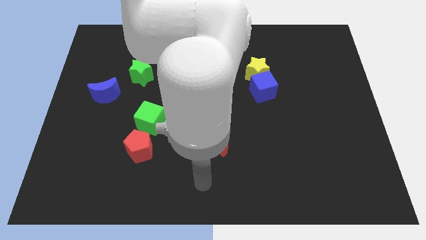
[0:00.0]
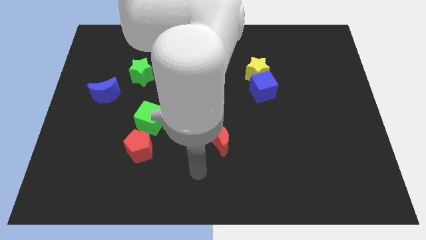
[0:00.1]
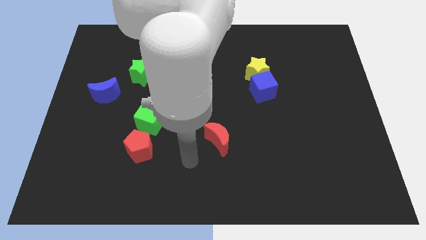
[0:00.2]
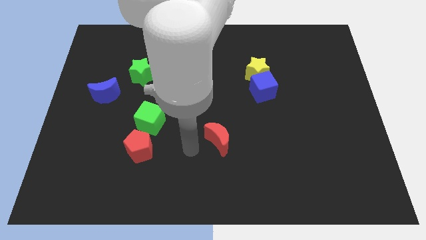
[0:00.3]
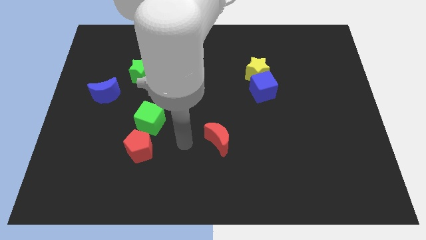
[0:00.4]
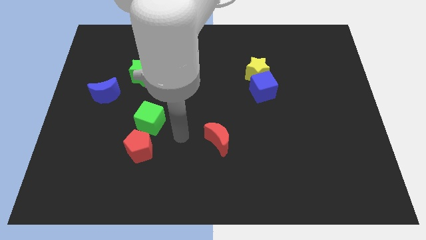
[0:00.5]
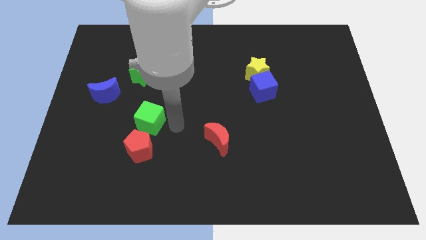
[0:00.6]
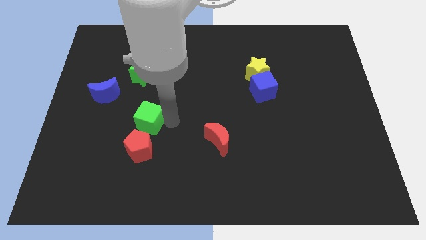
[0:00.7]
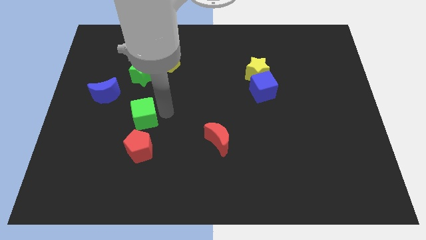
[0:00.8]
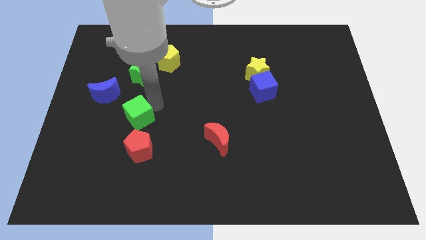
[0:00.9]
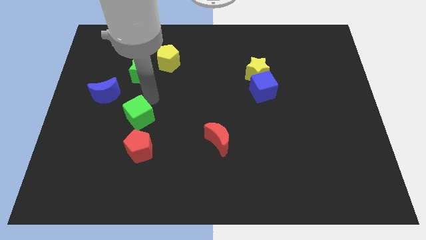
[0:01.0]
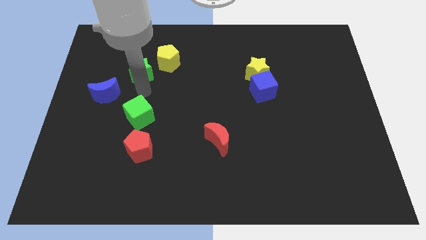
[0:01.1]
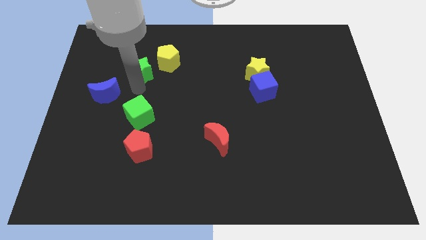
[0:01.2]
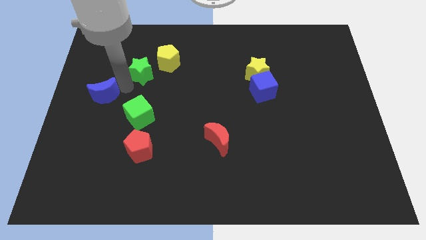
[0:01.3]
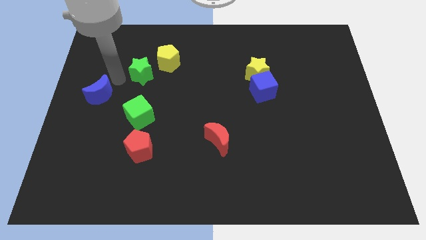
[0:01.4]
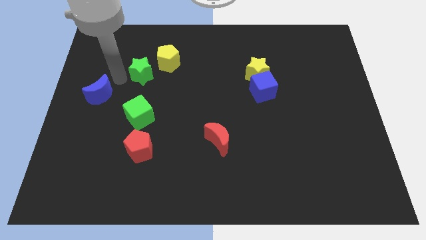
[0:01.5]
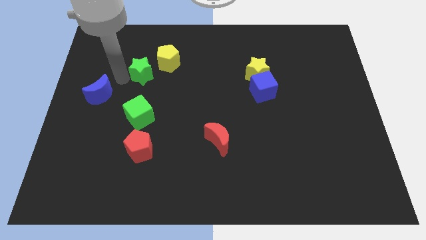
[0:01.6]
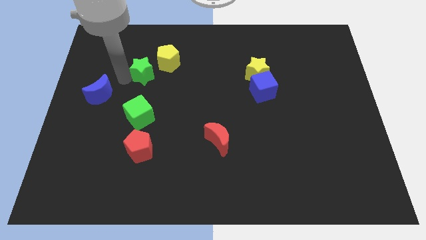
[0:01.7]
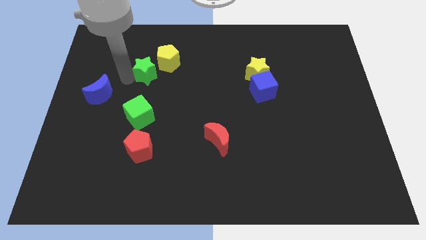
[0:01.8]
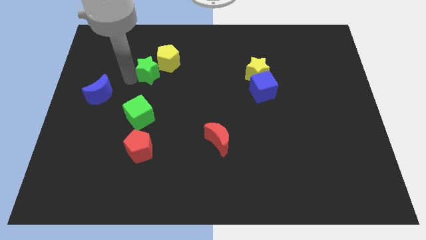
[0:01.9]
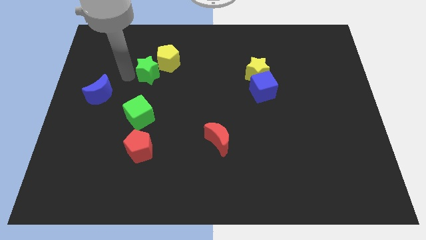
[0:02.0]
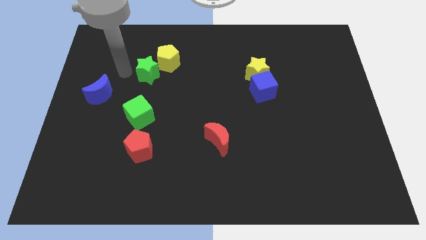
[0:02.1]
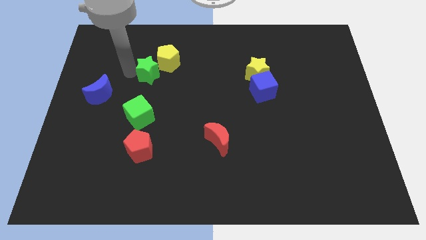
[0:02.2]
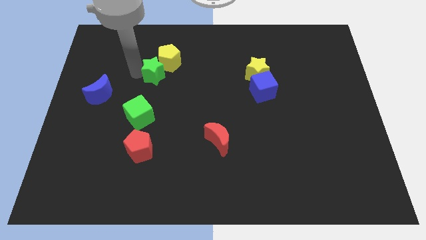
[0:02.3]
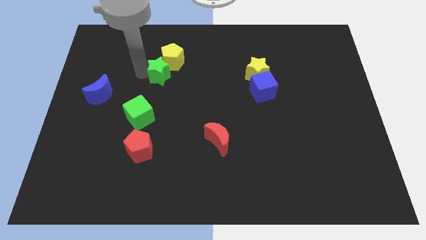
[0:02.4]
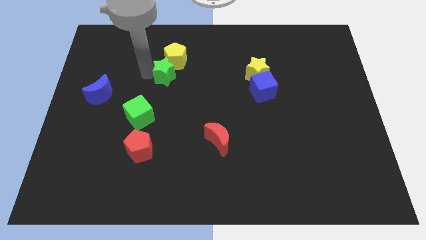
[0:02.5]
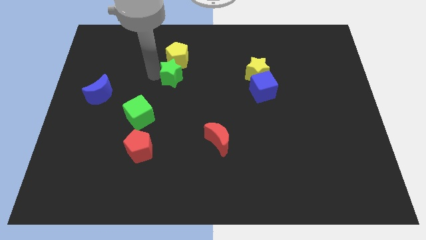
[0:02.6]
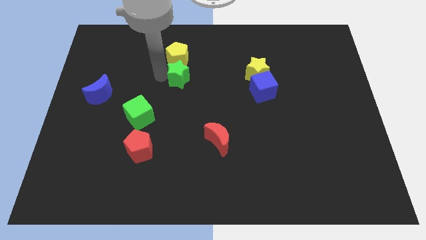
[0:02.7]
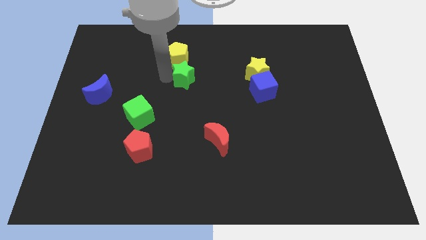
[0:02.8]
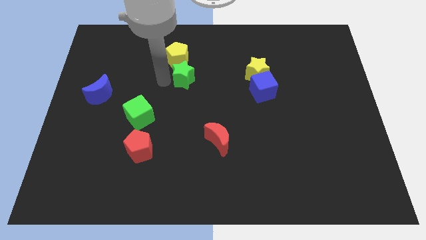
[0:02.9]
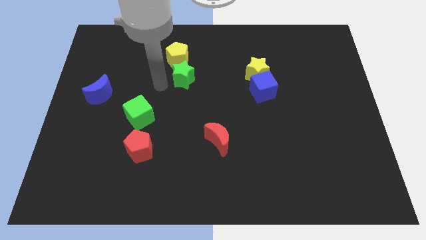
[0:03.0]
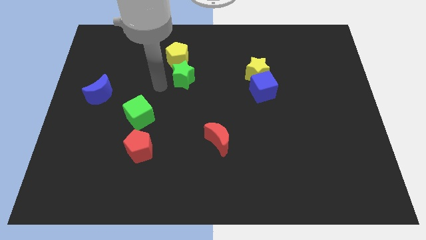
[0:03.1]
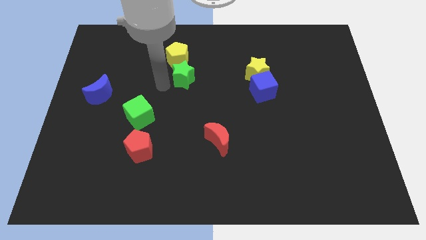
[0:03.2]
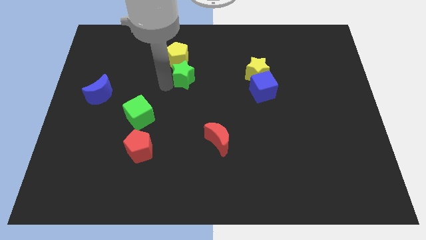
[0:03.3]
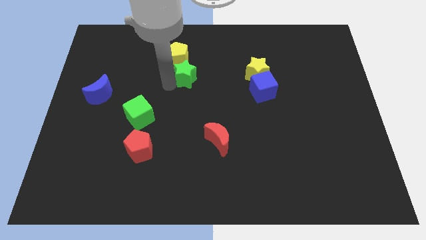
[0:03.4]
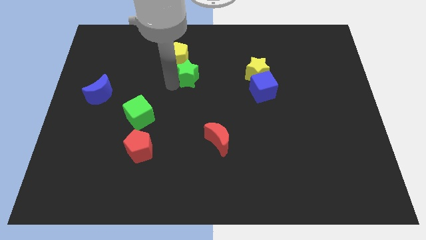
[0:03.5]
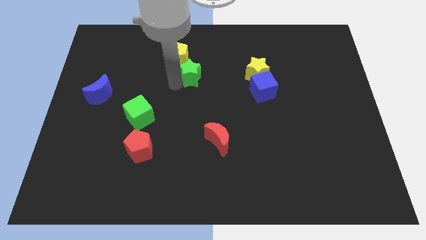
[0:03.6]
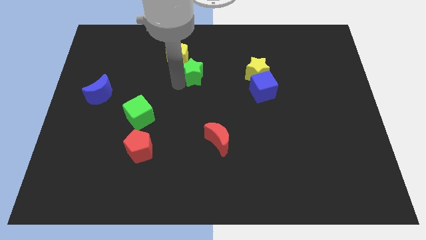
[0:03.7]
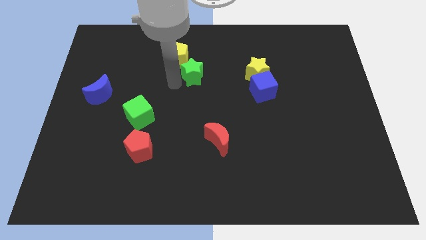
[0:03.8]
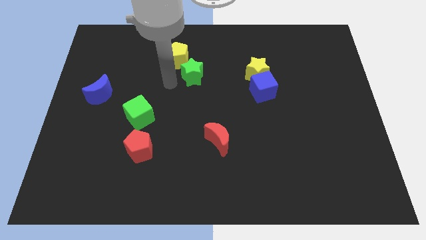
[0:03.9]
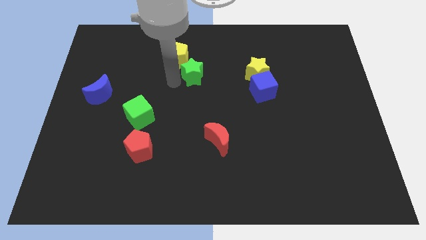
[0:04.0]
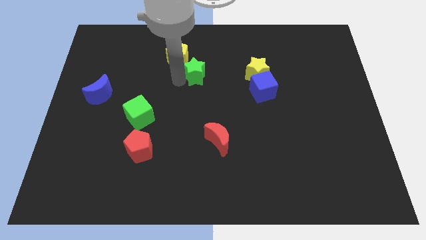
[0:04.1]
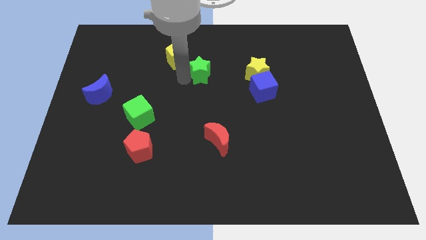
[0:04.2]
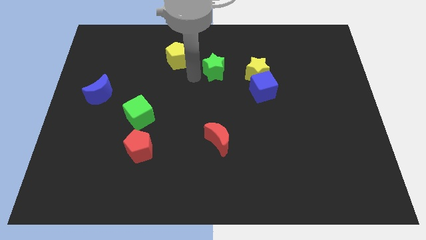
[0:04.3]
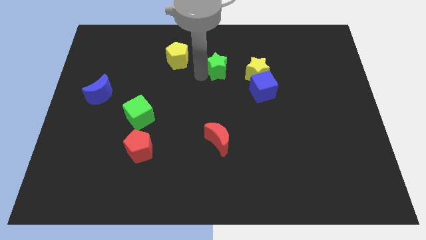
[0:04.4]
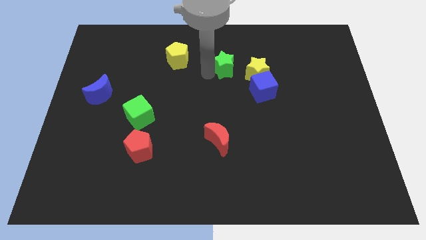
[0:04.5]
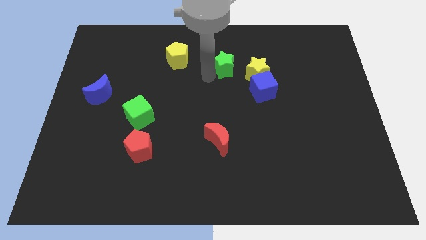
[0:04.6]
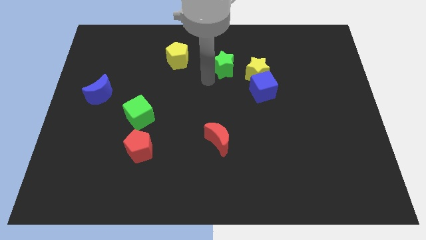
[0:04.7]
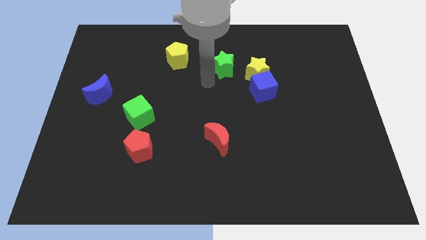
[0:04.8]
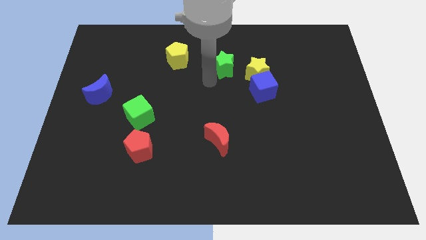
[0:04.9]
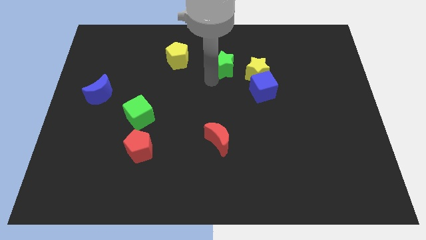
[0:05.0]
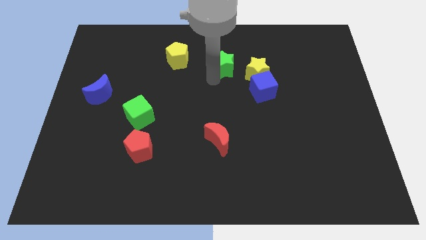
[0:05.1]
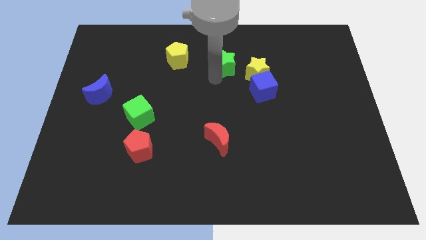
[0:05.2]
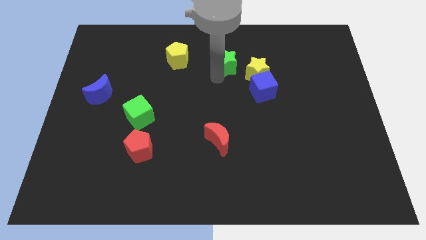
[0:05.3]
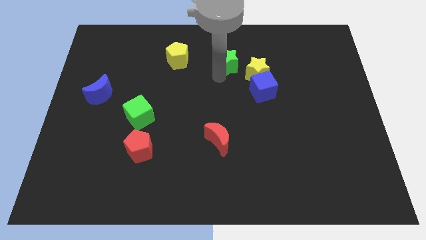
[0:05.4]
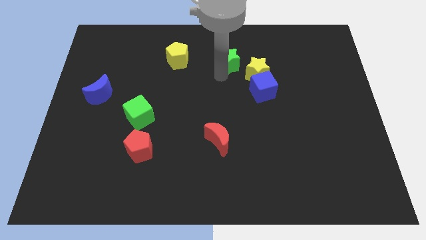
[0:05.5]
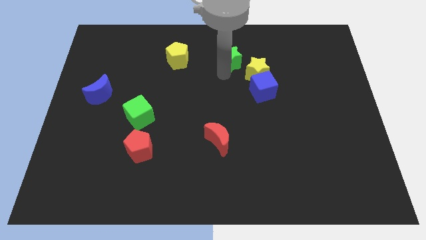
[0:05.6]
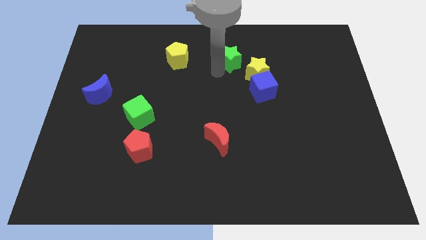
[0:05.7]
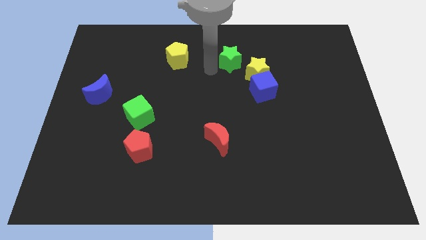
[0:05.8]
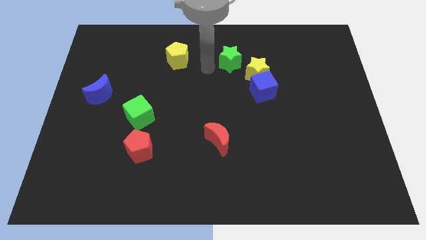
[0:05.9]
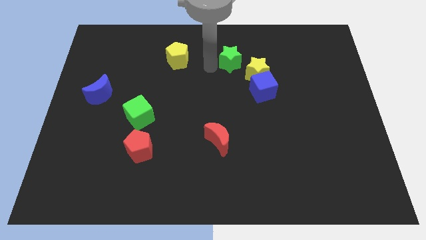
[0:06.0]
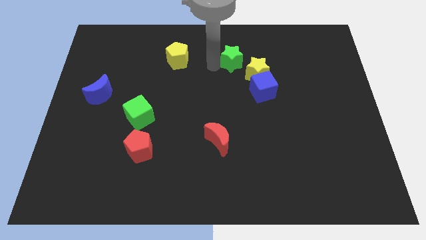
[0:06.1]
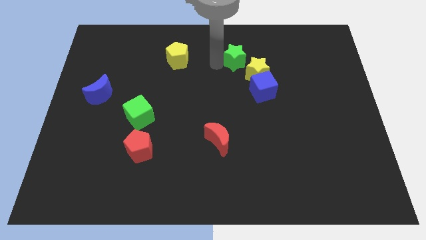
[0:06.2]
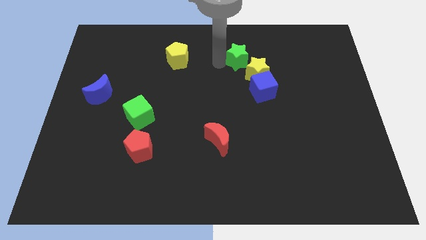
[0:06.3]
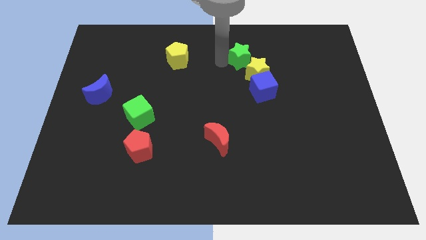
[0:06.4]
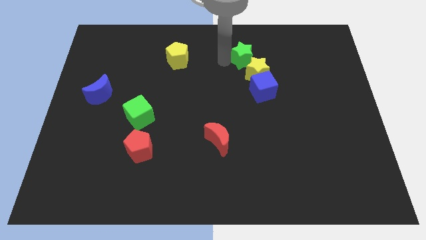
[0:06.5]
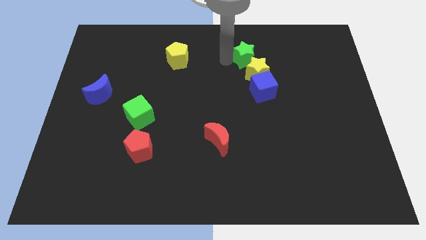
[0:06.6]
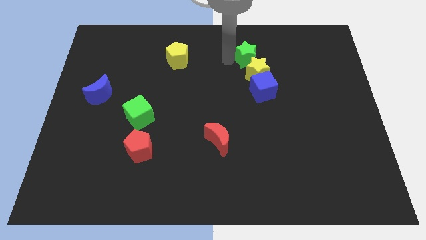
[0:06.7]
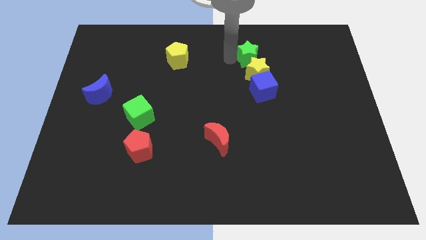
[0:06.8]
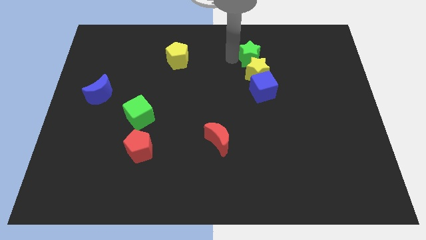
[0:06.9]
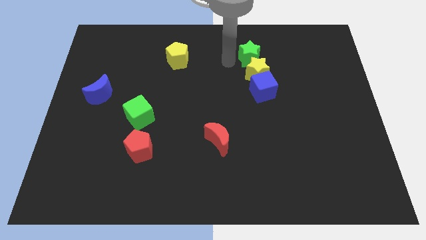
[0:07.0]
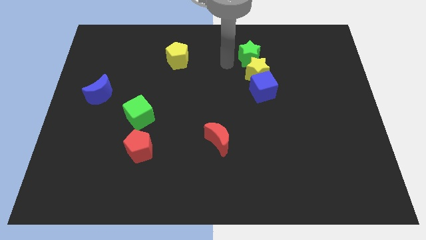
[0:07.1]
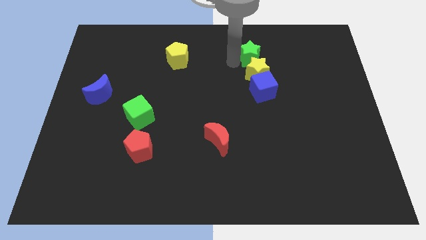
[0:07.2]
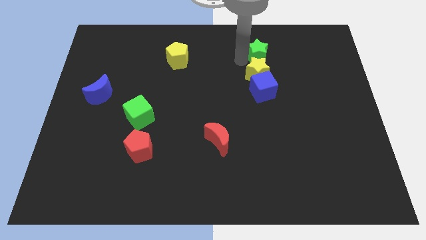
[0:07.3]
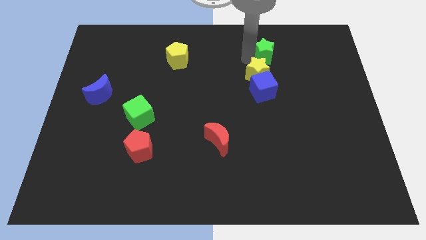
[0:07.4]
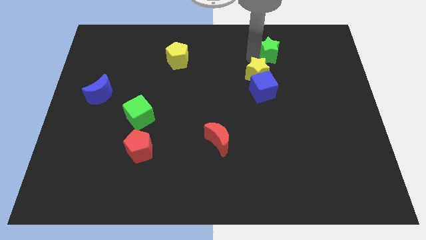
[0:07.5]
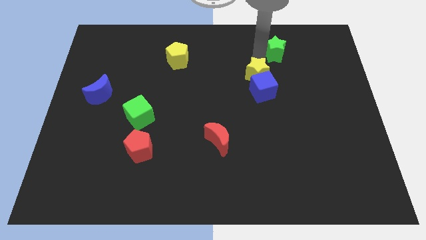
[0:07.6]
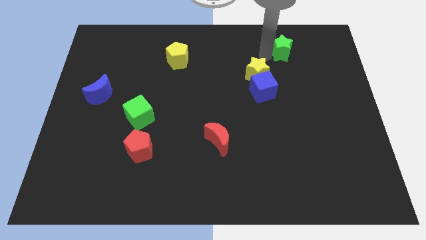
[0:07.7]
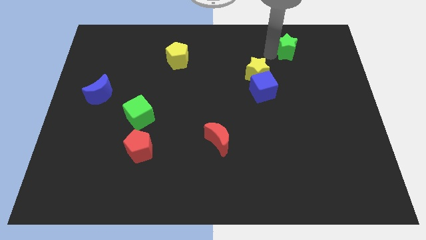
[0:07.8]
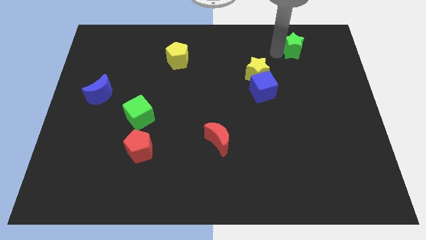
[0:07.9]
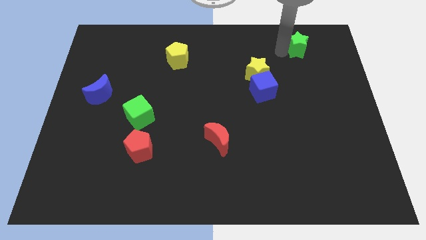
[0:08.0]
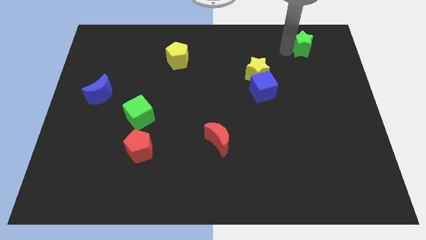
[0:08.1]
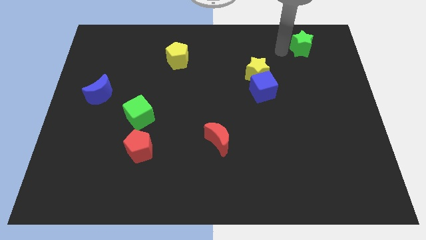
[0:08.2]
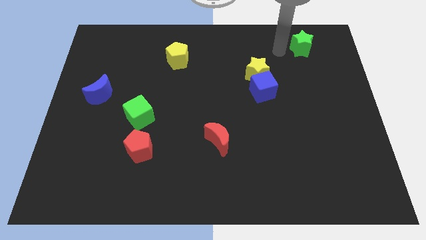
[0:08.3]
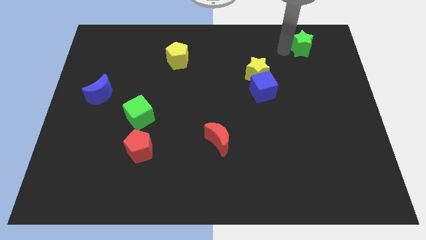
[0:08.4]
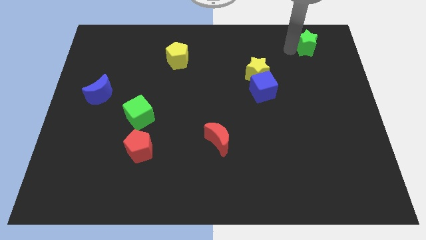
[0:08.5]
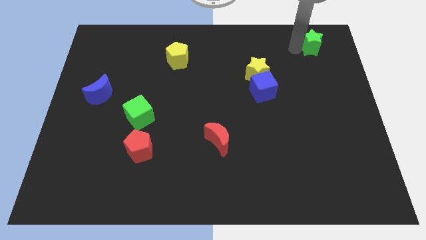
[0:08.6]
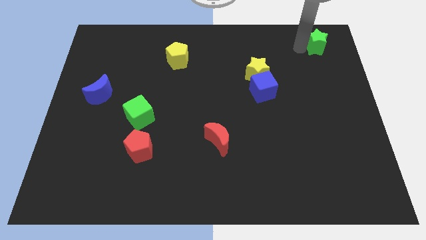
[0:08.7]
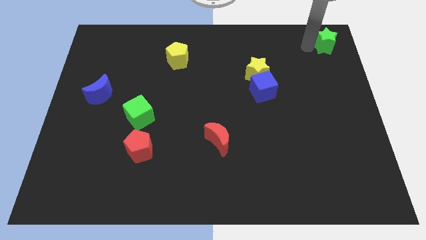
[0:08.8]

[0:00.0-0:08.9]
slide the green star to the top right of the board
